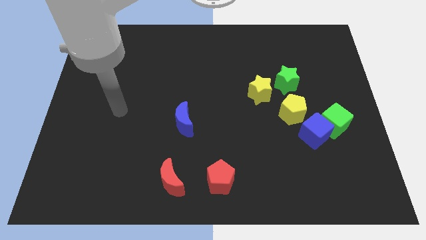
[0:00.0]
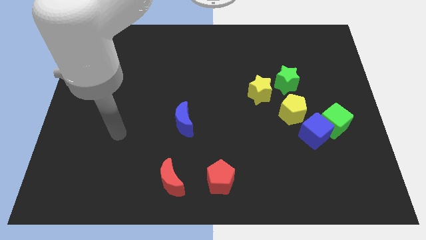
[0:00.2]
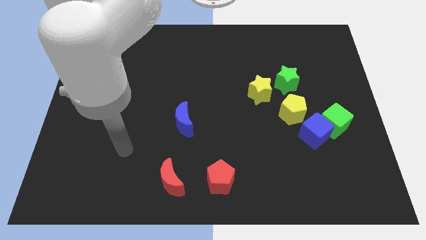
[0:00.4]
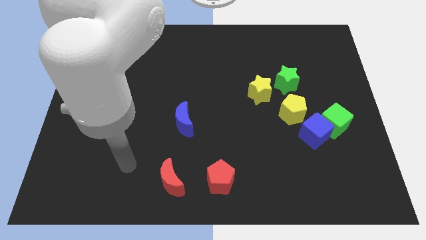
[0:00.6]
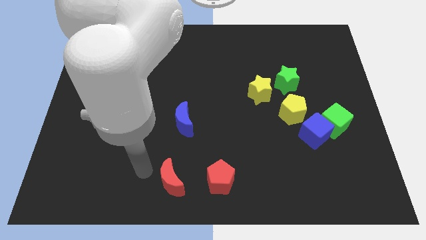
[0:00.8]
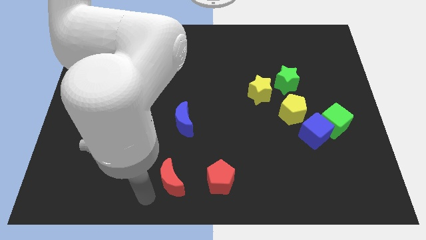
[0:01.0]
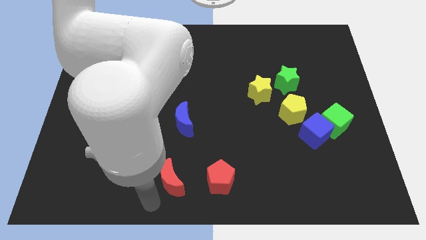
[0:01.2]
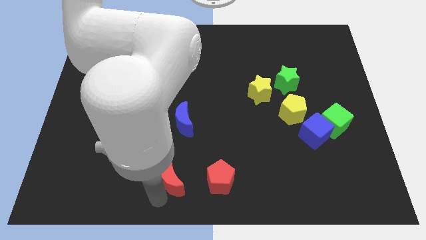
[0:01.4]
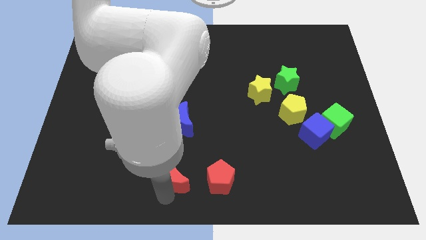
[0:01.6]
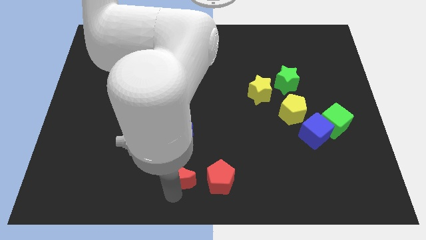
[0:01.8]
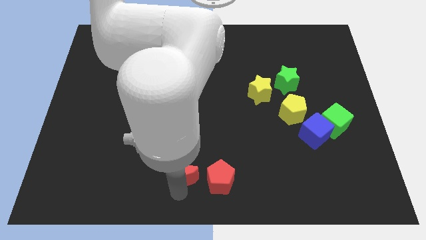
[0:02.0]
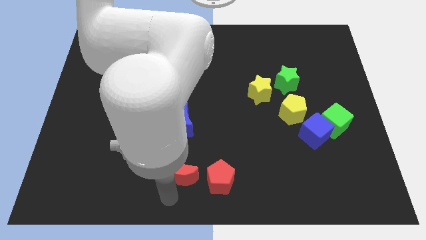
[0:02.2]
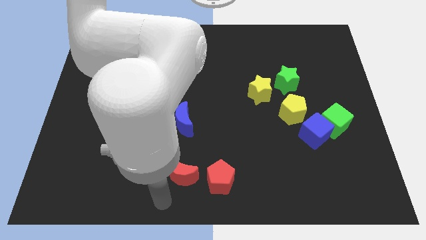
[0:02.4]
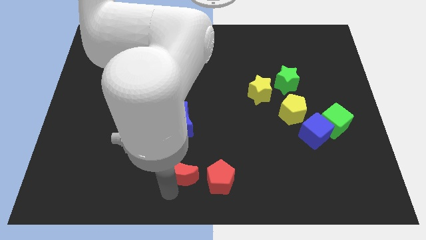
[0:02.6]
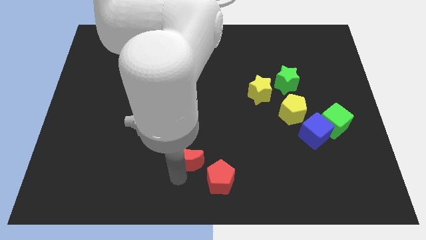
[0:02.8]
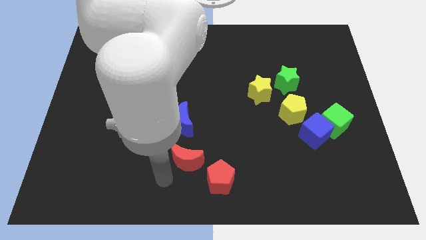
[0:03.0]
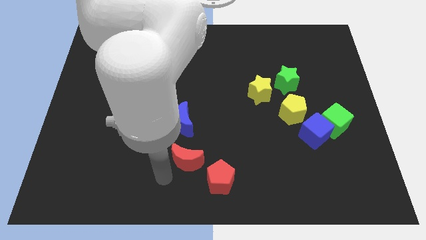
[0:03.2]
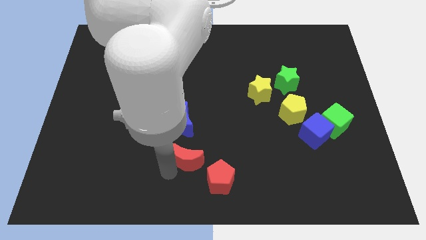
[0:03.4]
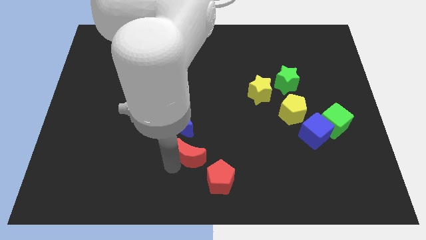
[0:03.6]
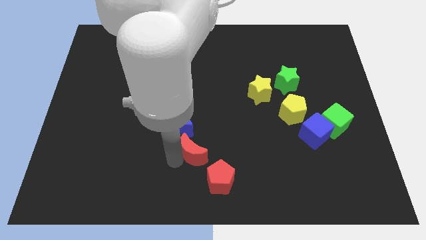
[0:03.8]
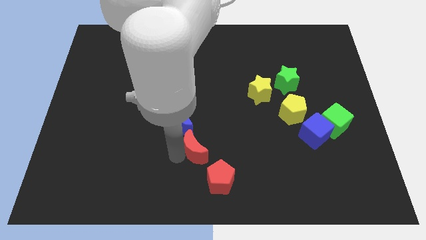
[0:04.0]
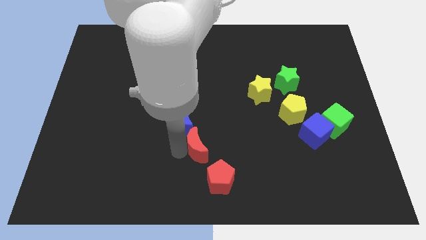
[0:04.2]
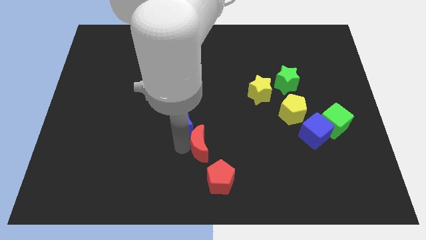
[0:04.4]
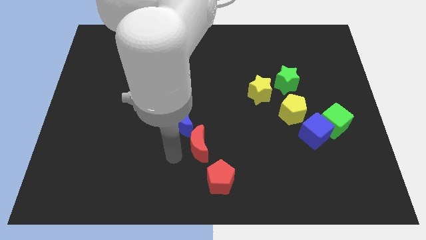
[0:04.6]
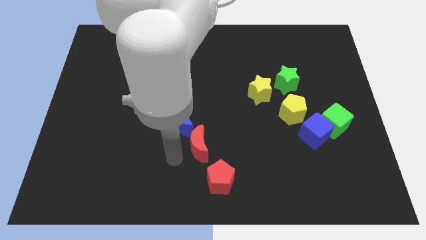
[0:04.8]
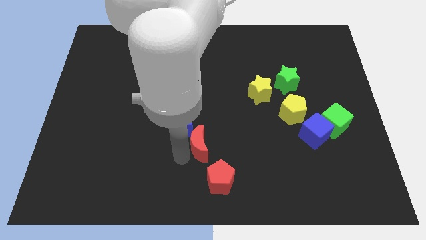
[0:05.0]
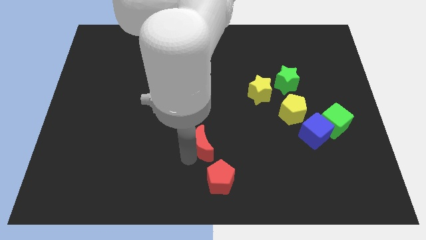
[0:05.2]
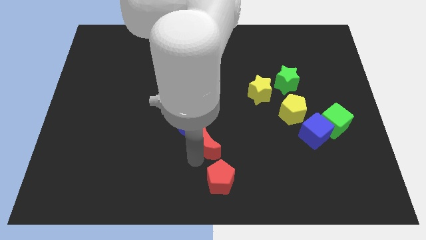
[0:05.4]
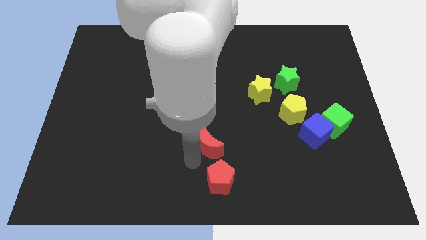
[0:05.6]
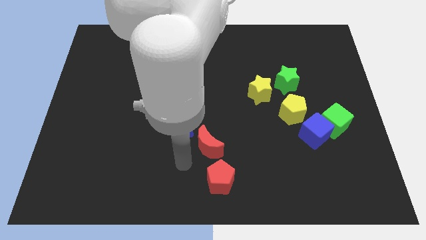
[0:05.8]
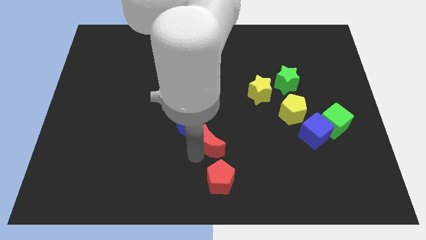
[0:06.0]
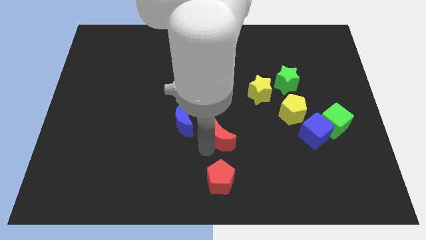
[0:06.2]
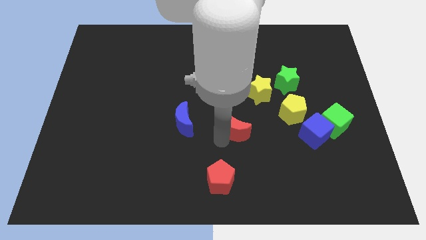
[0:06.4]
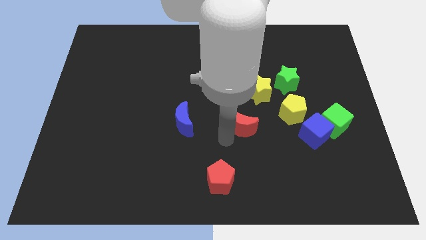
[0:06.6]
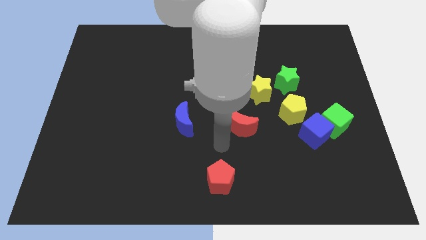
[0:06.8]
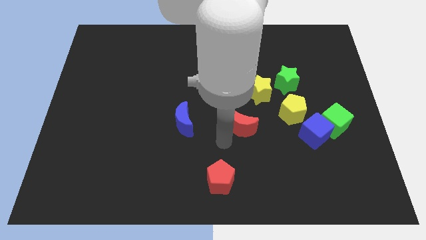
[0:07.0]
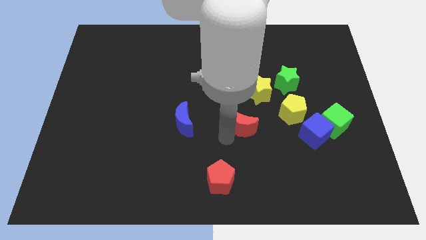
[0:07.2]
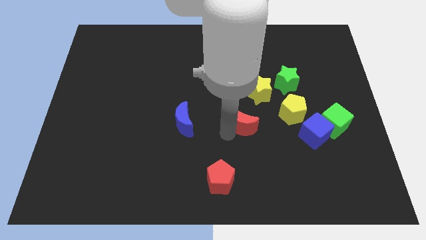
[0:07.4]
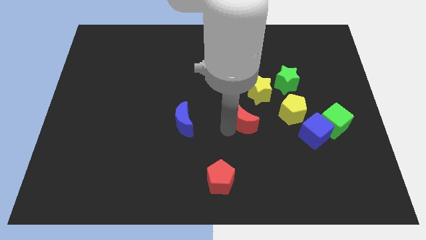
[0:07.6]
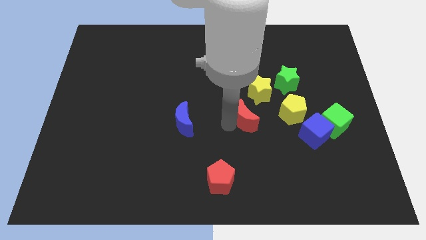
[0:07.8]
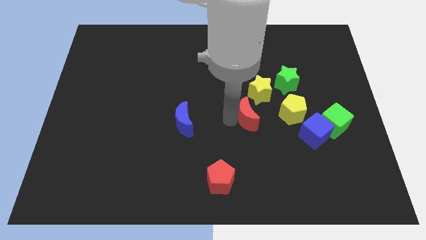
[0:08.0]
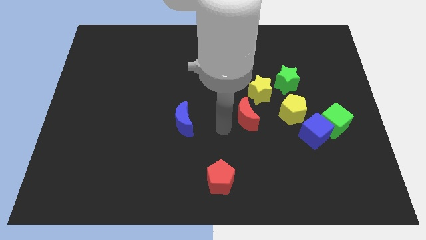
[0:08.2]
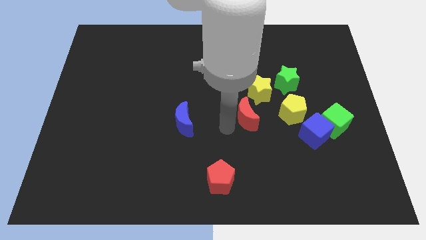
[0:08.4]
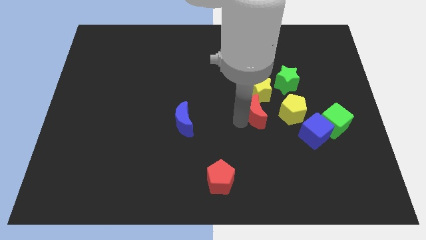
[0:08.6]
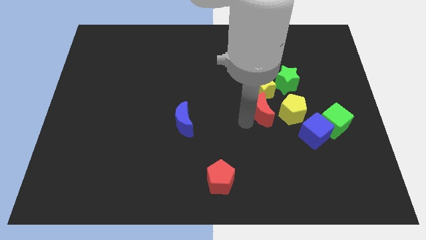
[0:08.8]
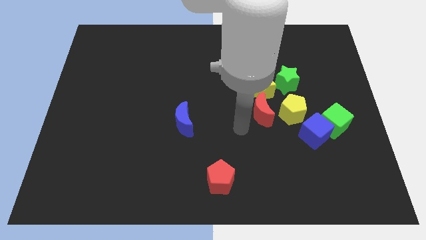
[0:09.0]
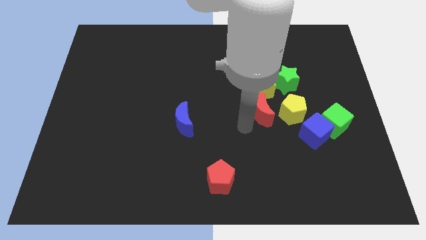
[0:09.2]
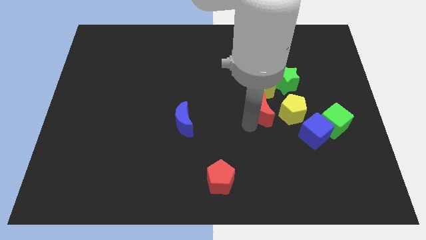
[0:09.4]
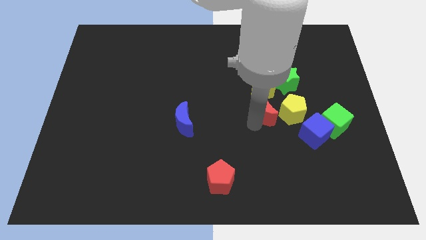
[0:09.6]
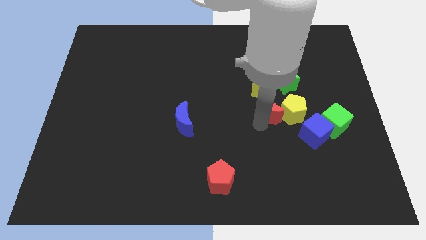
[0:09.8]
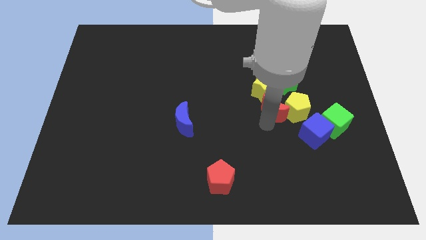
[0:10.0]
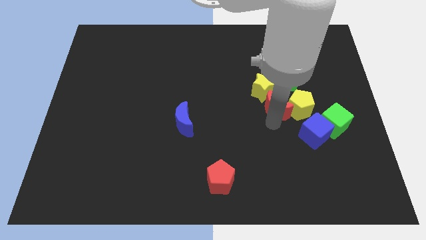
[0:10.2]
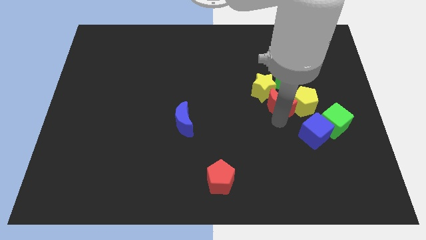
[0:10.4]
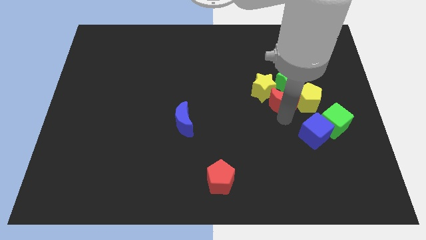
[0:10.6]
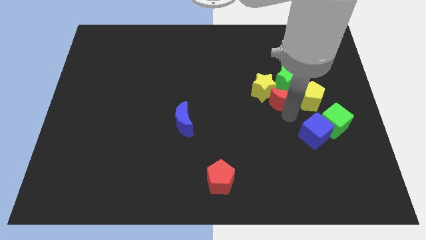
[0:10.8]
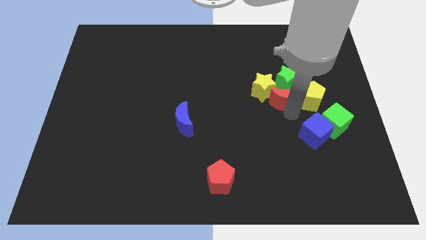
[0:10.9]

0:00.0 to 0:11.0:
move the red moon towards the green star

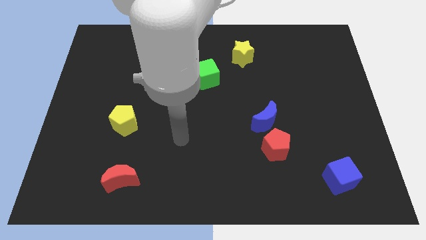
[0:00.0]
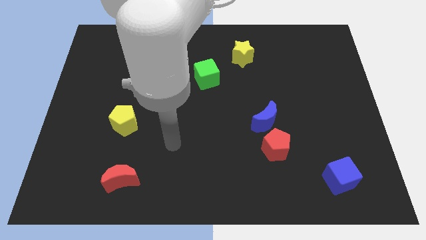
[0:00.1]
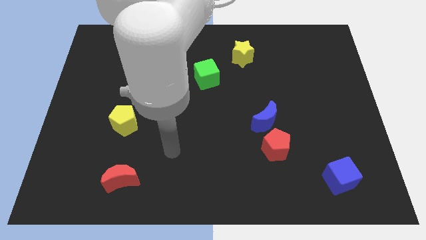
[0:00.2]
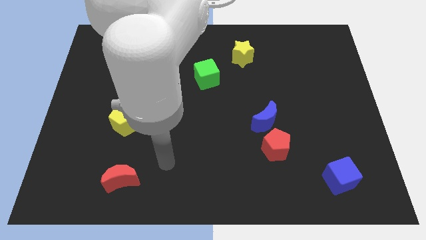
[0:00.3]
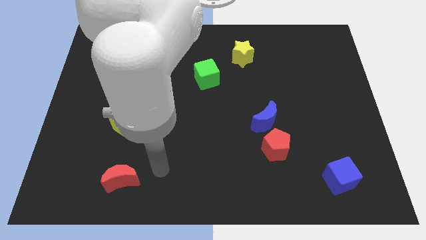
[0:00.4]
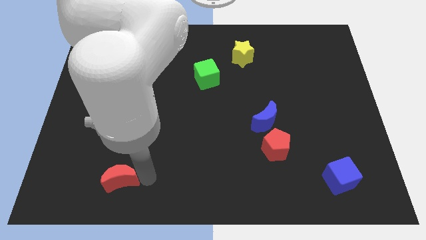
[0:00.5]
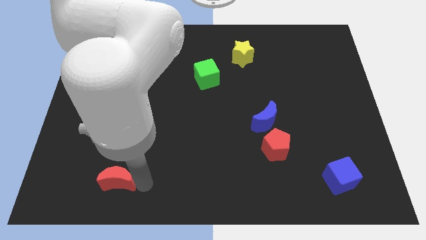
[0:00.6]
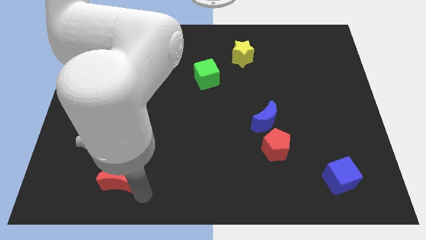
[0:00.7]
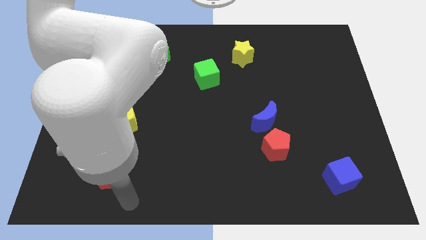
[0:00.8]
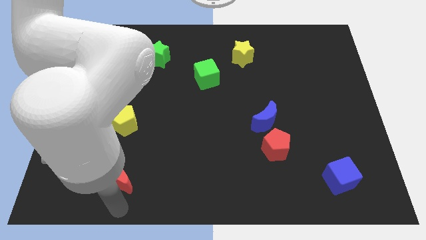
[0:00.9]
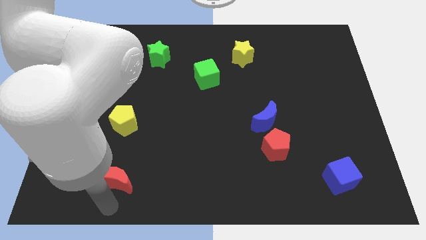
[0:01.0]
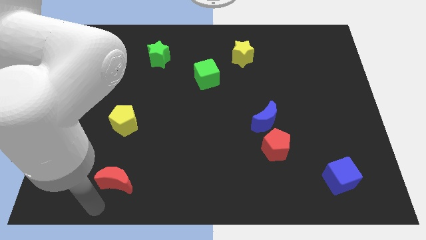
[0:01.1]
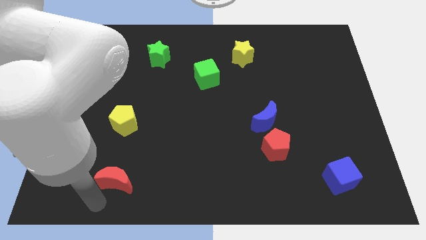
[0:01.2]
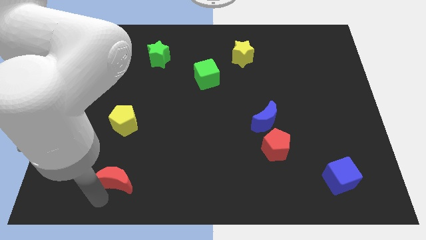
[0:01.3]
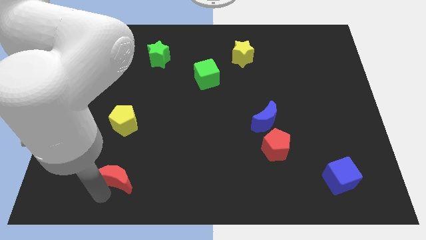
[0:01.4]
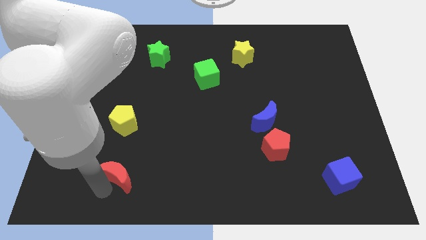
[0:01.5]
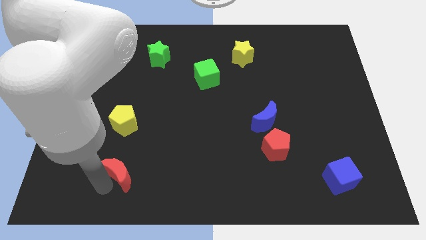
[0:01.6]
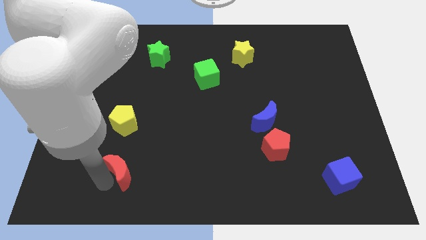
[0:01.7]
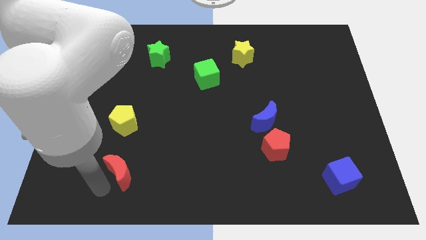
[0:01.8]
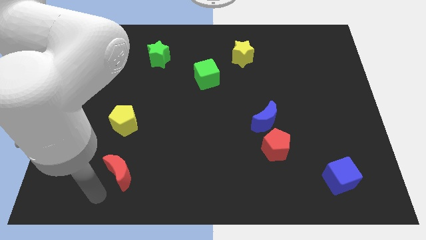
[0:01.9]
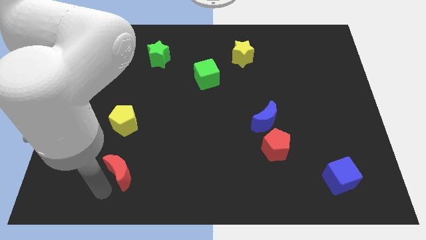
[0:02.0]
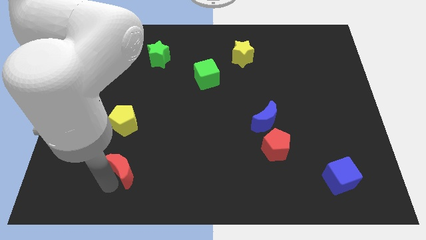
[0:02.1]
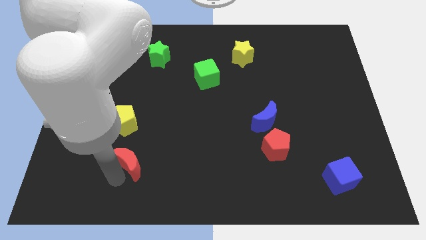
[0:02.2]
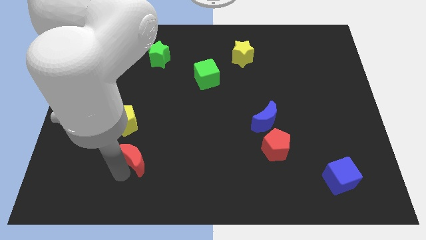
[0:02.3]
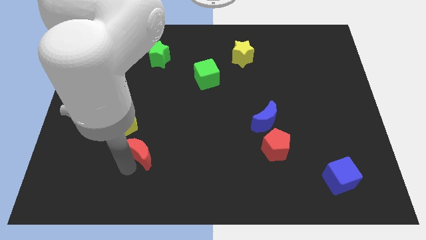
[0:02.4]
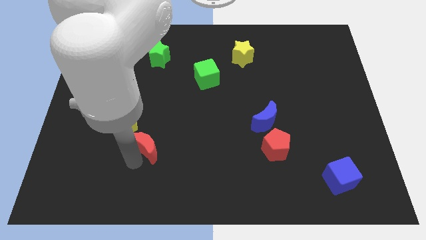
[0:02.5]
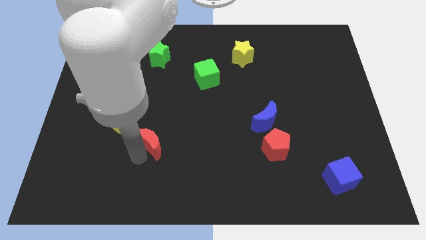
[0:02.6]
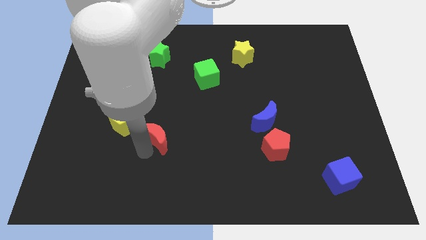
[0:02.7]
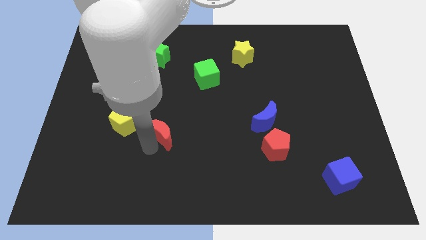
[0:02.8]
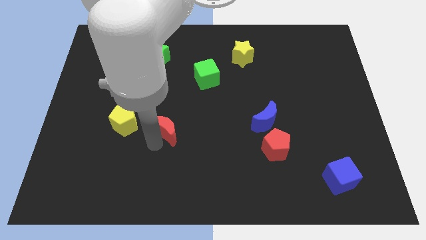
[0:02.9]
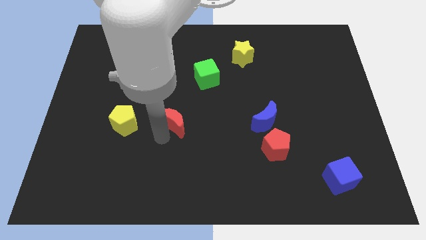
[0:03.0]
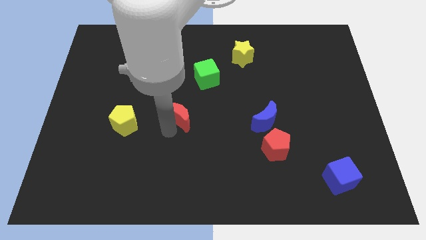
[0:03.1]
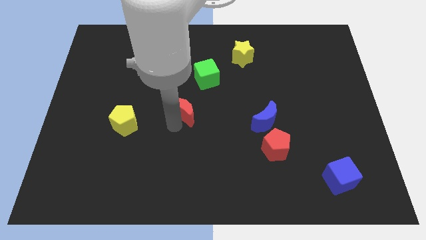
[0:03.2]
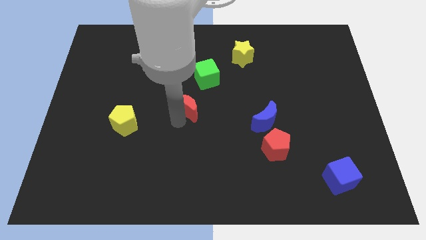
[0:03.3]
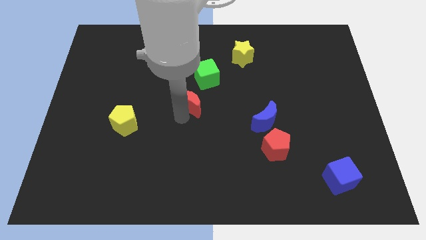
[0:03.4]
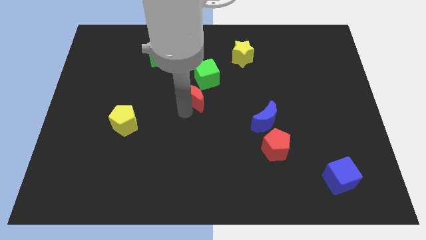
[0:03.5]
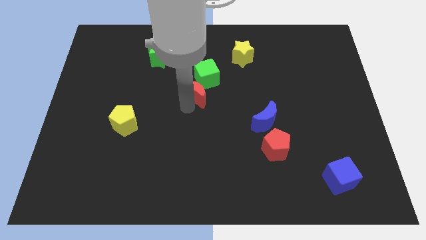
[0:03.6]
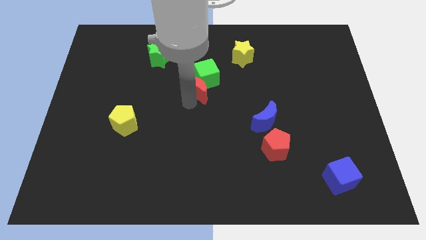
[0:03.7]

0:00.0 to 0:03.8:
push the red moon next to the green cube
